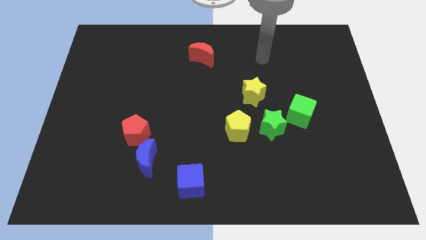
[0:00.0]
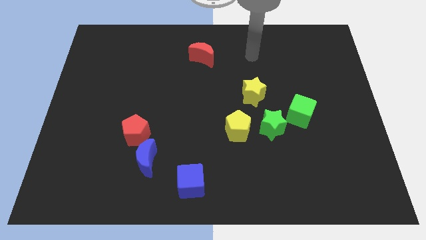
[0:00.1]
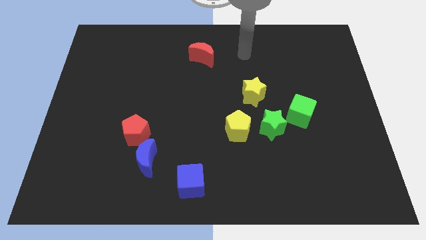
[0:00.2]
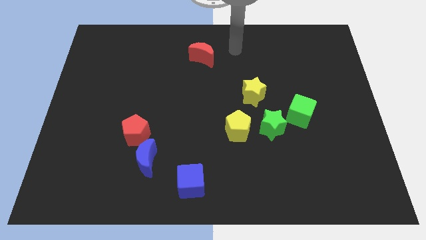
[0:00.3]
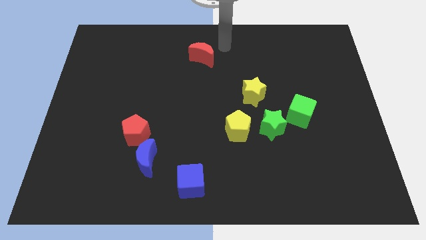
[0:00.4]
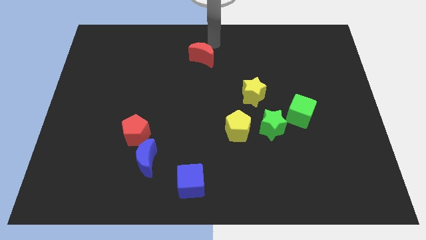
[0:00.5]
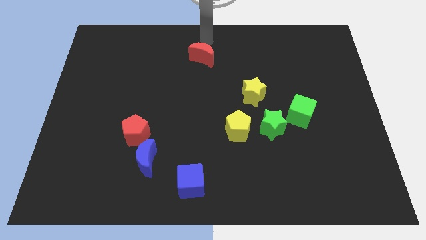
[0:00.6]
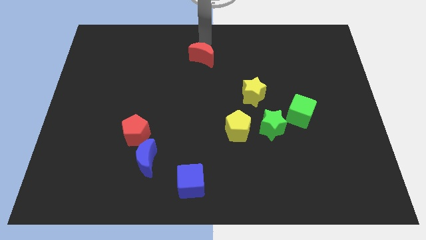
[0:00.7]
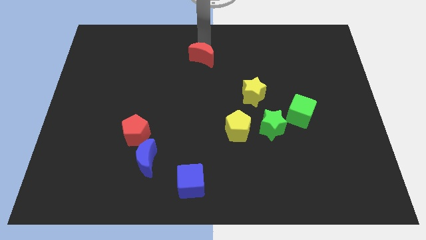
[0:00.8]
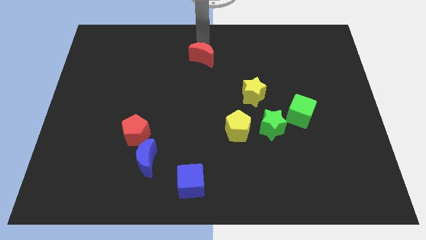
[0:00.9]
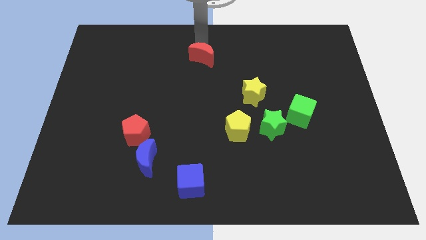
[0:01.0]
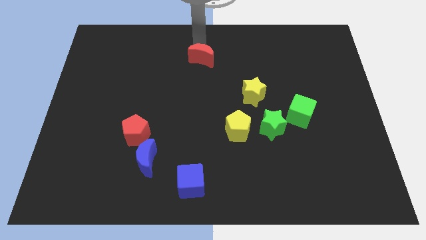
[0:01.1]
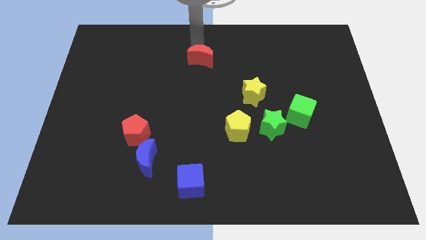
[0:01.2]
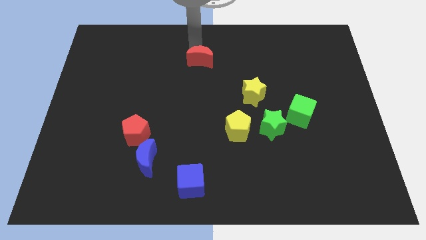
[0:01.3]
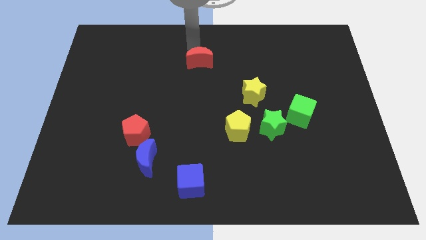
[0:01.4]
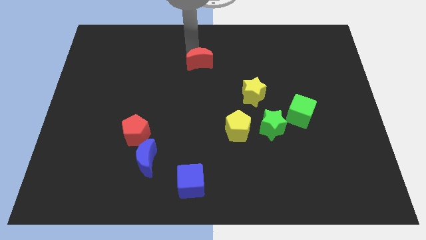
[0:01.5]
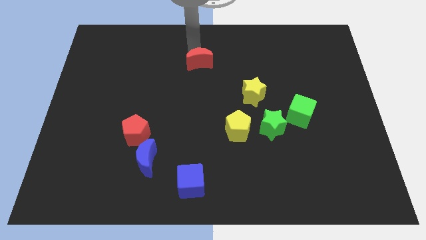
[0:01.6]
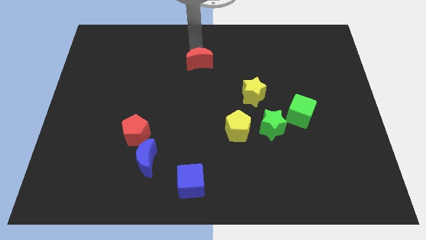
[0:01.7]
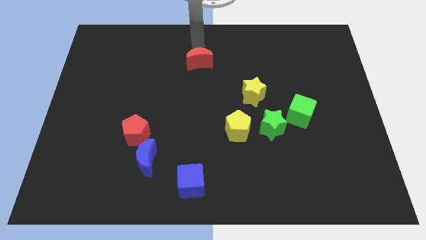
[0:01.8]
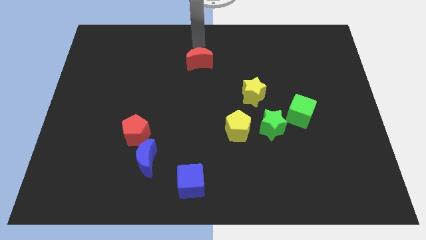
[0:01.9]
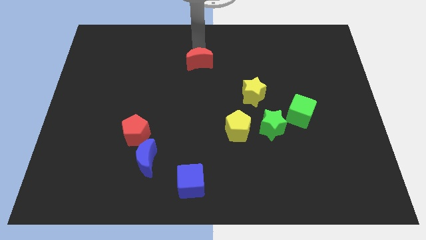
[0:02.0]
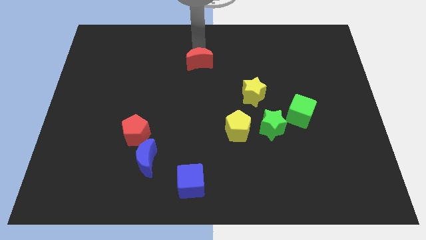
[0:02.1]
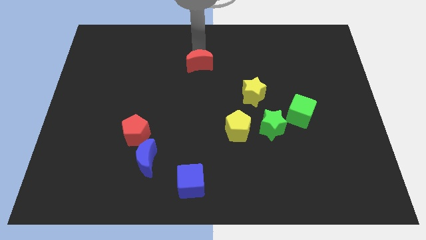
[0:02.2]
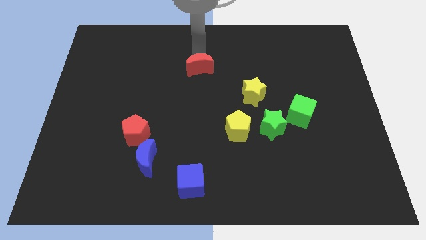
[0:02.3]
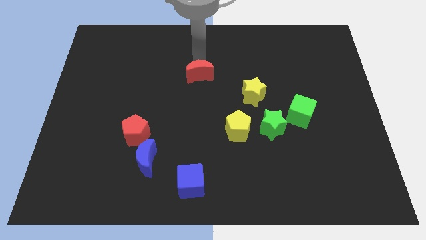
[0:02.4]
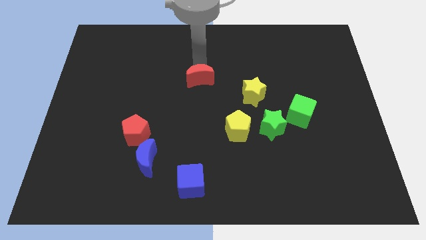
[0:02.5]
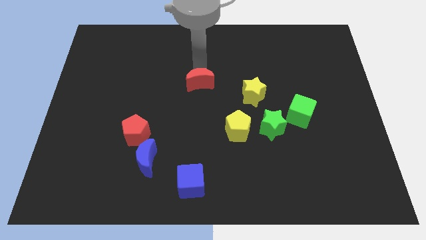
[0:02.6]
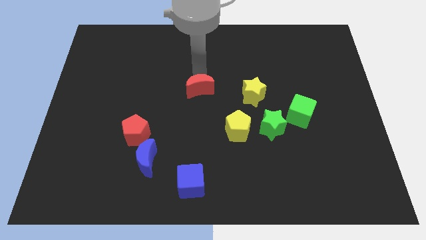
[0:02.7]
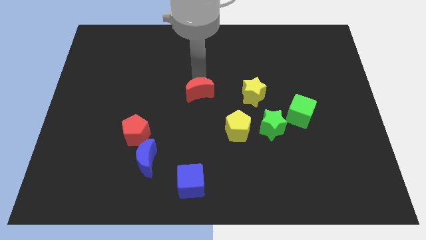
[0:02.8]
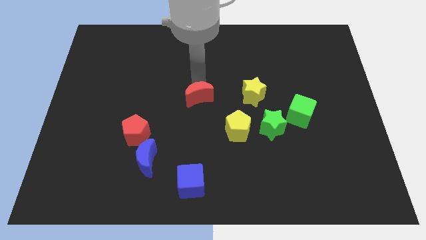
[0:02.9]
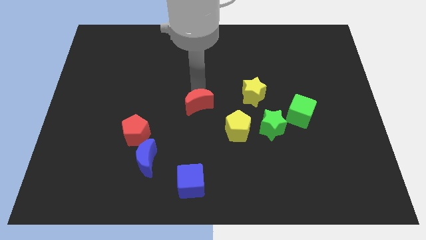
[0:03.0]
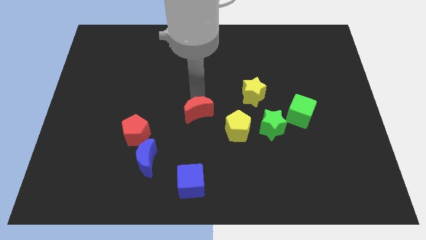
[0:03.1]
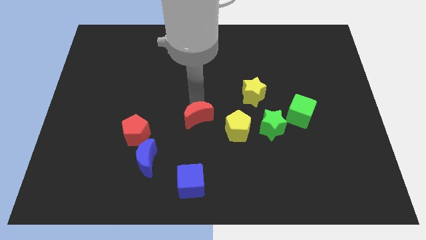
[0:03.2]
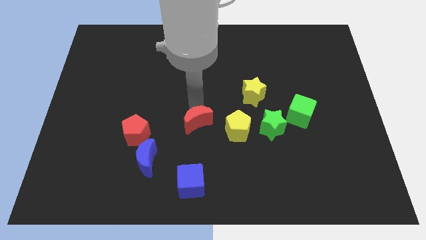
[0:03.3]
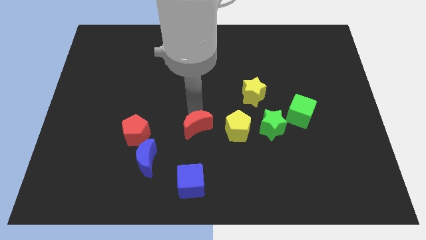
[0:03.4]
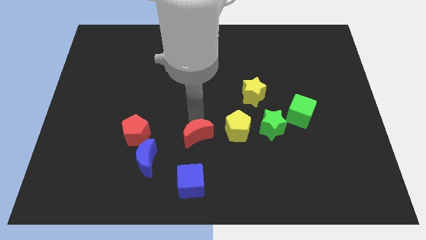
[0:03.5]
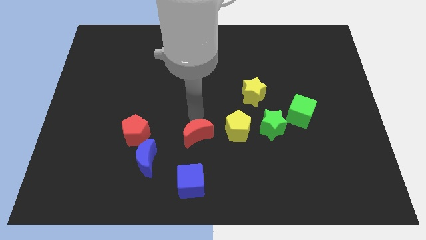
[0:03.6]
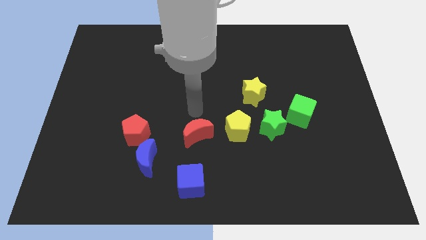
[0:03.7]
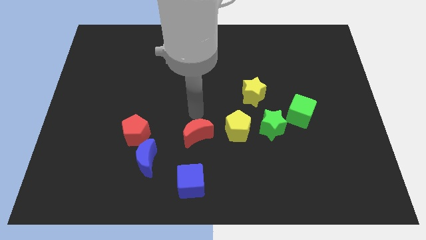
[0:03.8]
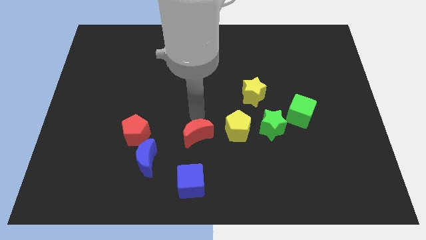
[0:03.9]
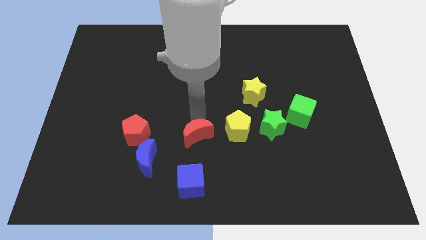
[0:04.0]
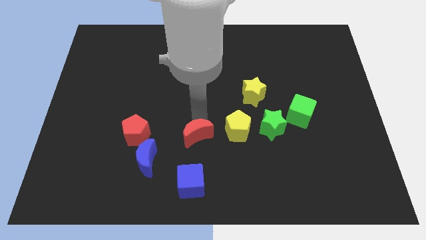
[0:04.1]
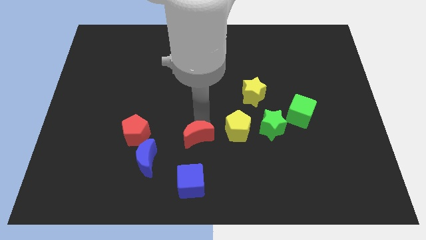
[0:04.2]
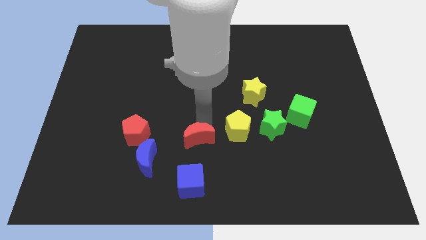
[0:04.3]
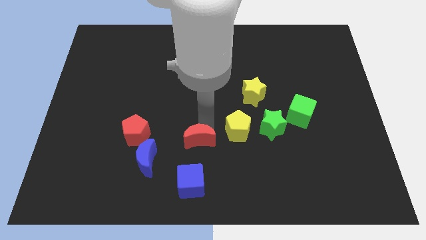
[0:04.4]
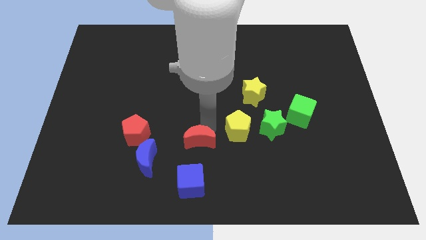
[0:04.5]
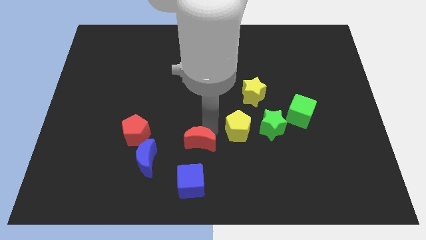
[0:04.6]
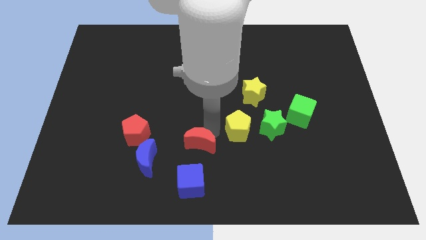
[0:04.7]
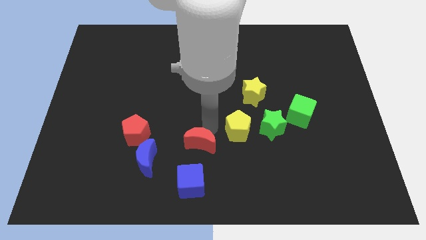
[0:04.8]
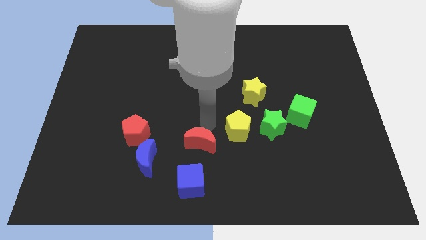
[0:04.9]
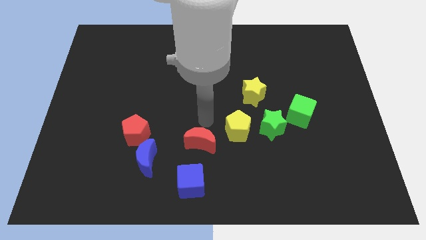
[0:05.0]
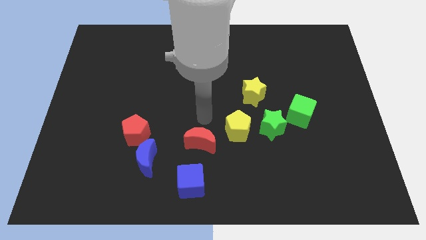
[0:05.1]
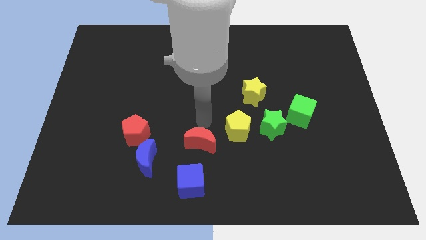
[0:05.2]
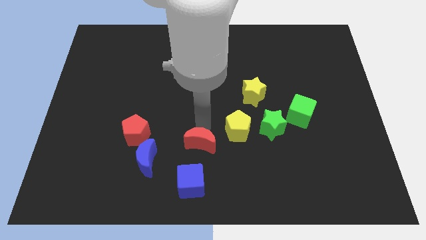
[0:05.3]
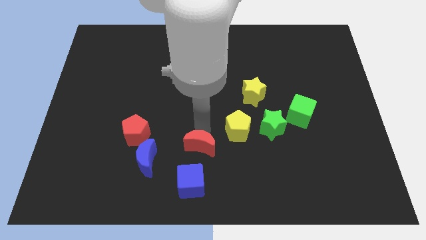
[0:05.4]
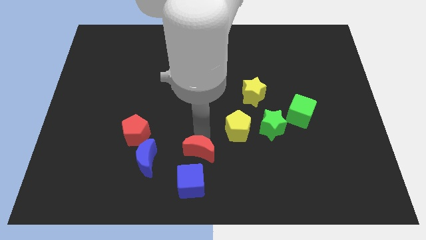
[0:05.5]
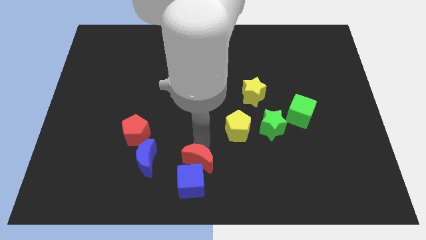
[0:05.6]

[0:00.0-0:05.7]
move the red moon next to the blue cube

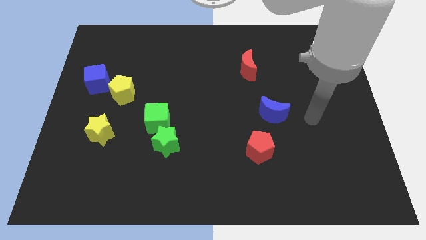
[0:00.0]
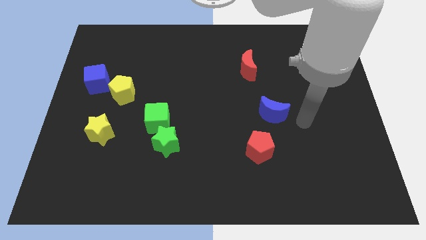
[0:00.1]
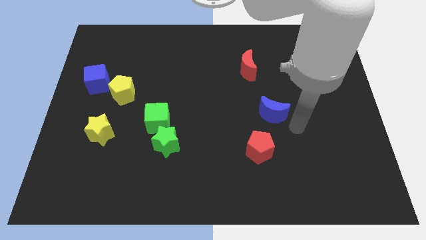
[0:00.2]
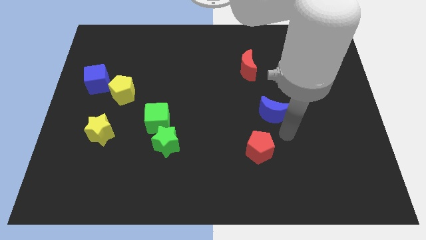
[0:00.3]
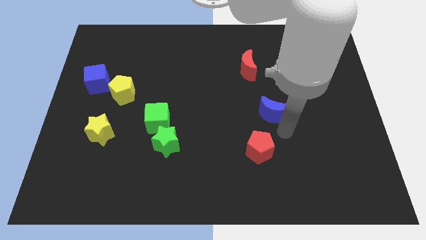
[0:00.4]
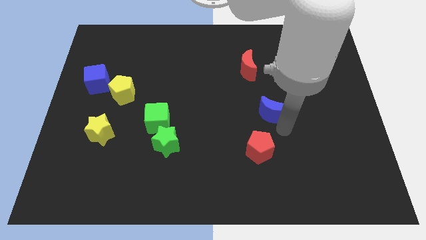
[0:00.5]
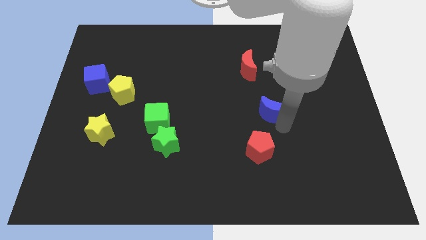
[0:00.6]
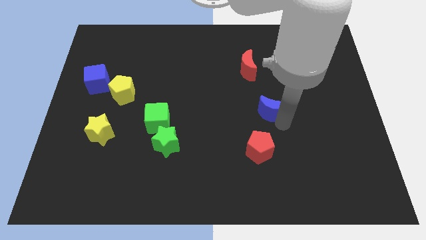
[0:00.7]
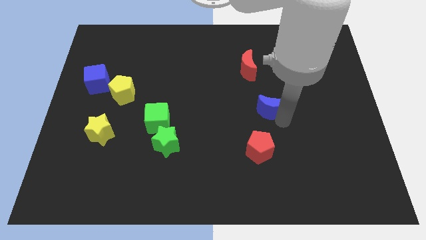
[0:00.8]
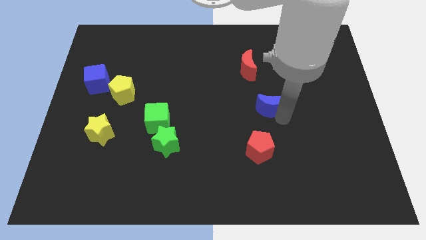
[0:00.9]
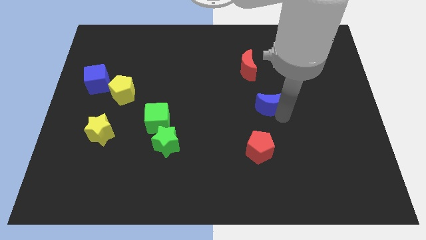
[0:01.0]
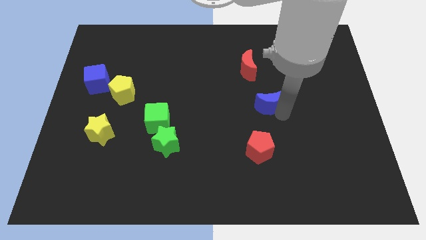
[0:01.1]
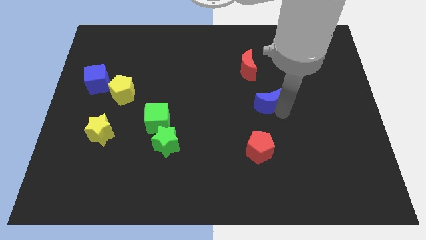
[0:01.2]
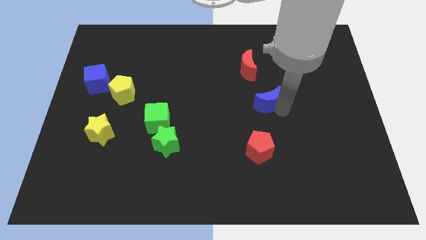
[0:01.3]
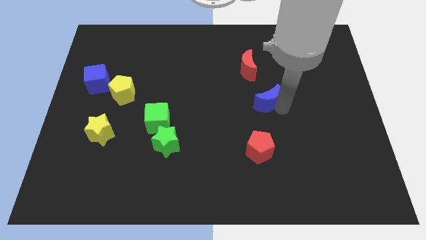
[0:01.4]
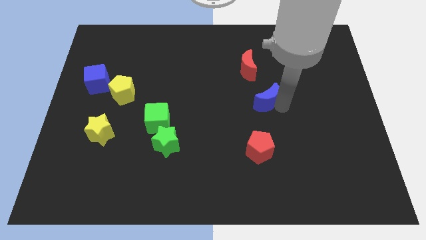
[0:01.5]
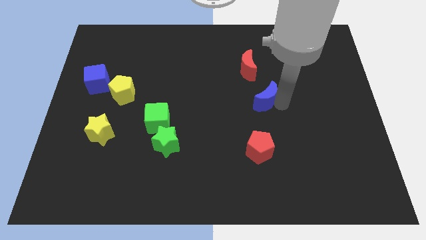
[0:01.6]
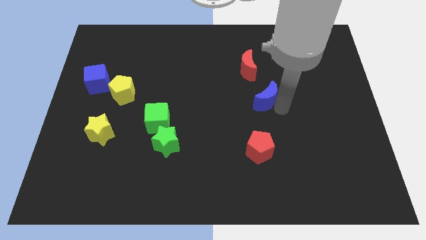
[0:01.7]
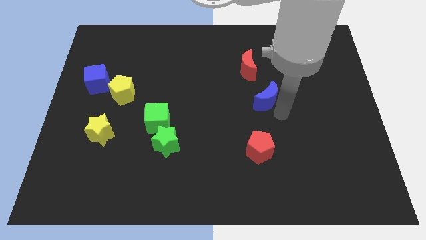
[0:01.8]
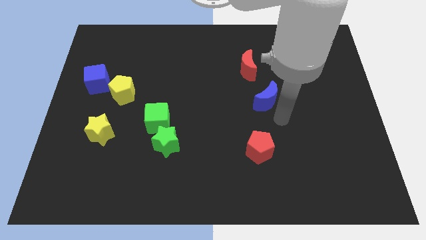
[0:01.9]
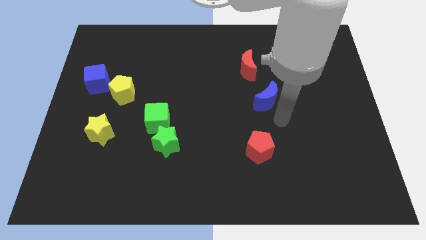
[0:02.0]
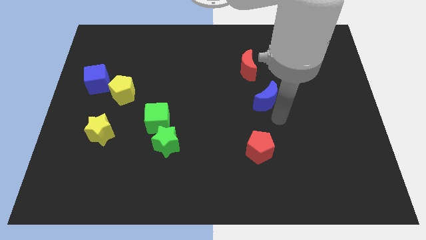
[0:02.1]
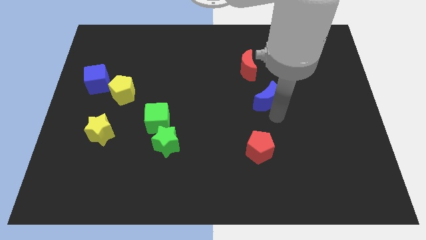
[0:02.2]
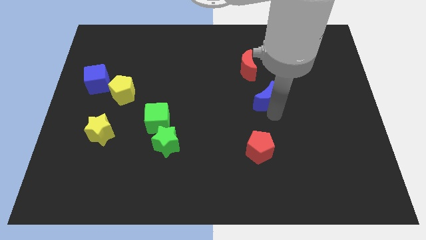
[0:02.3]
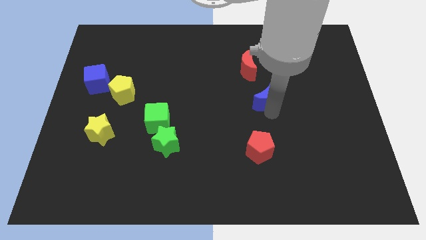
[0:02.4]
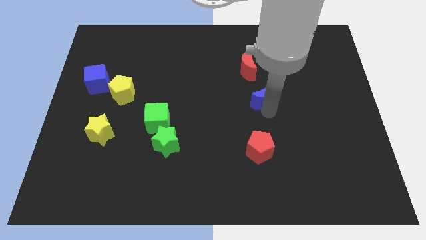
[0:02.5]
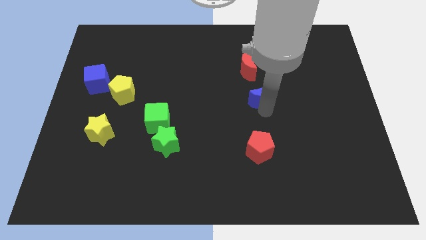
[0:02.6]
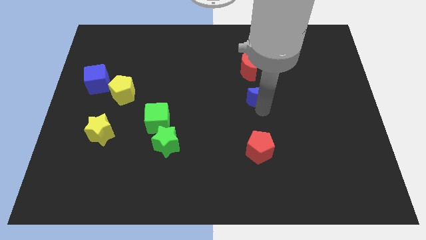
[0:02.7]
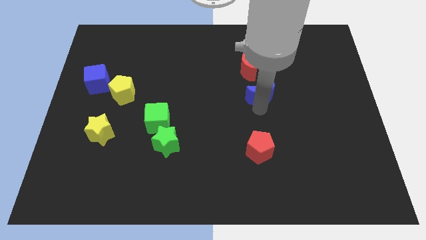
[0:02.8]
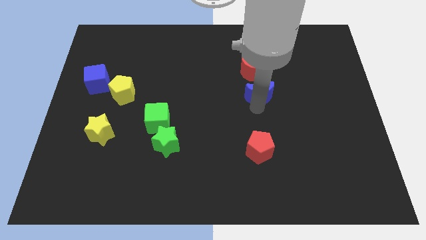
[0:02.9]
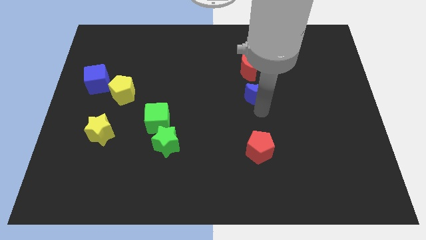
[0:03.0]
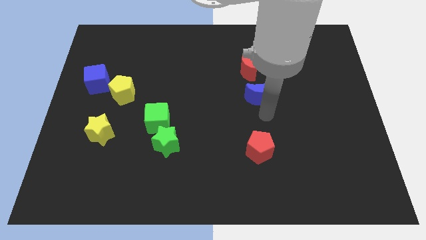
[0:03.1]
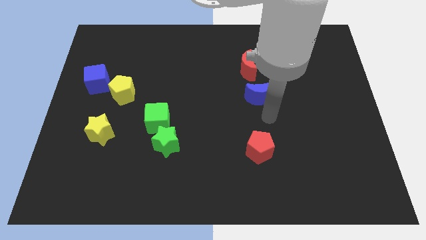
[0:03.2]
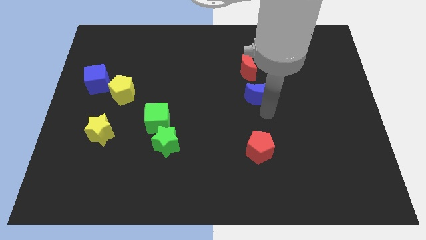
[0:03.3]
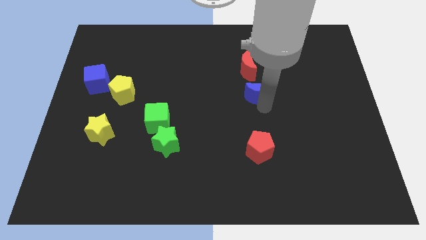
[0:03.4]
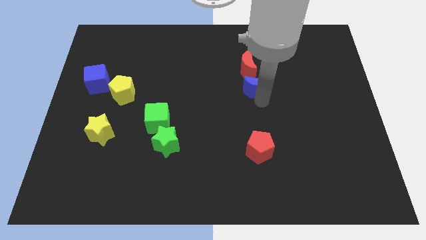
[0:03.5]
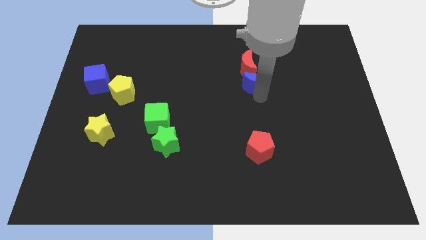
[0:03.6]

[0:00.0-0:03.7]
slide the blue moon close to the red moon
